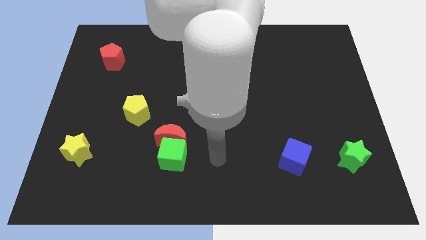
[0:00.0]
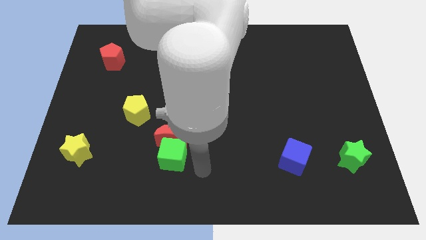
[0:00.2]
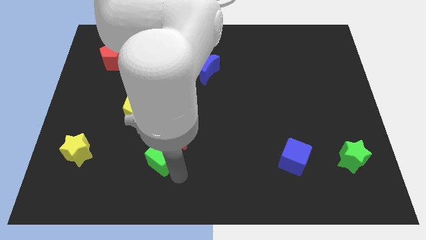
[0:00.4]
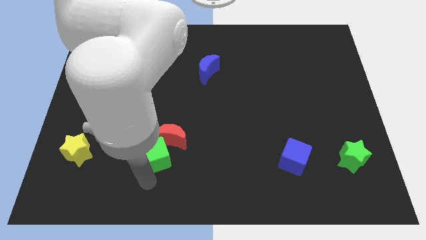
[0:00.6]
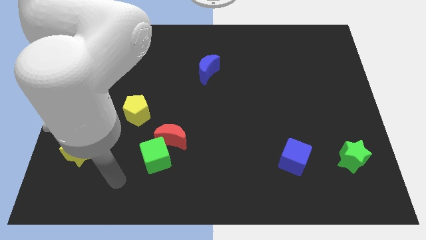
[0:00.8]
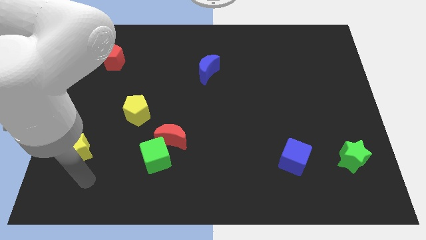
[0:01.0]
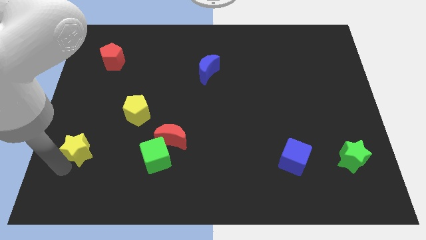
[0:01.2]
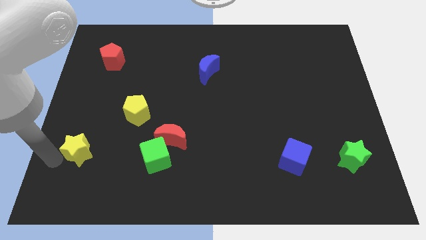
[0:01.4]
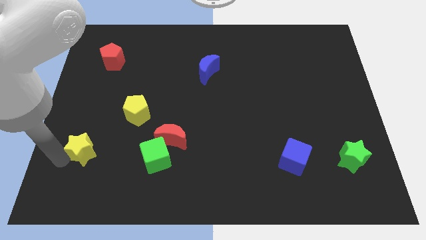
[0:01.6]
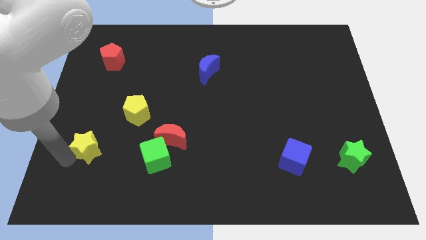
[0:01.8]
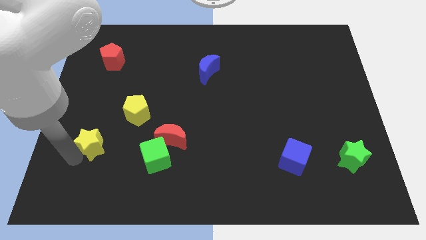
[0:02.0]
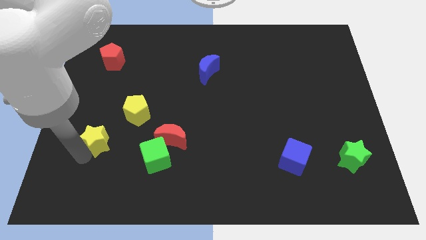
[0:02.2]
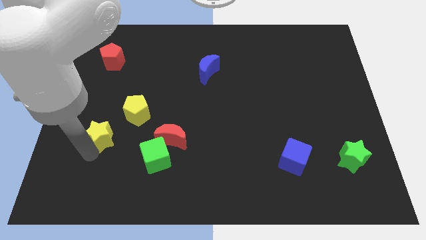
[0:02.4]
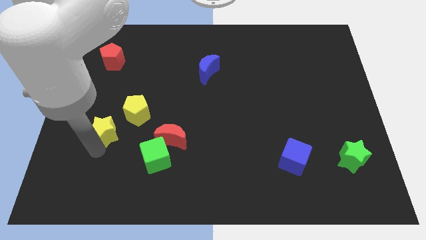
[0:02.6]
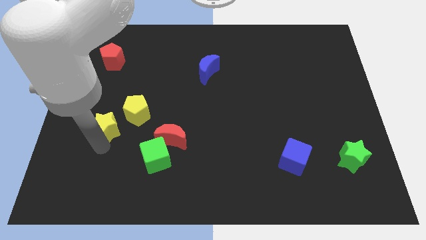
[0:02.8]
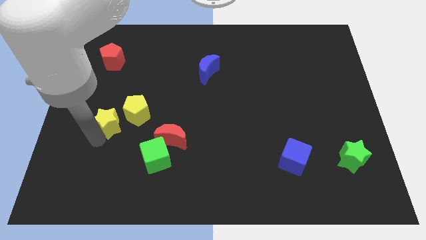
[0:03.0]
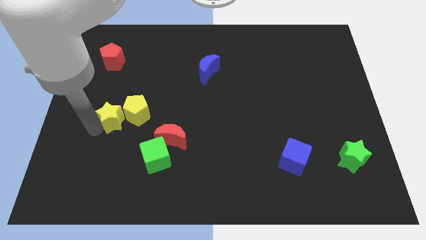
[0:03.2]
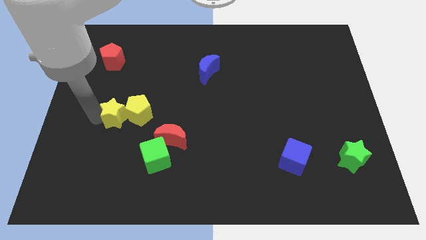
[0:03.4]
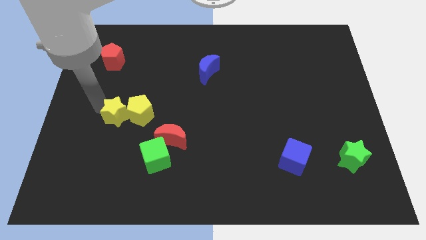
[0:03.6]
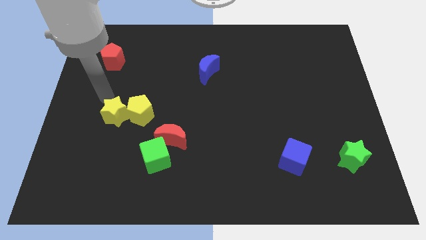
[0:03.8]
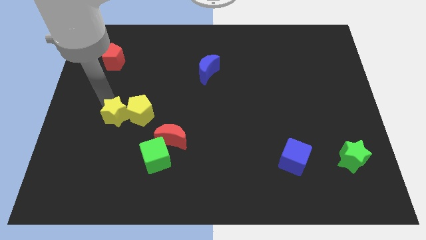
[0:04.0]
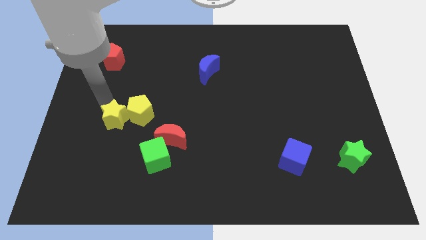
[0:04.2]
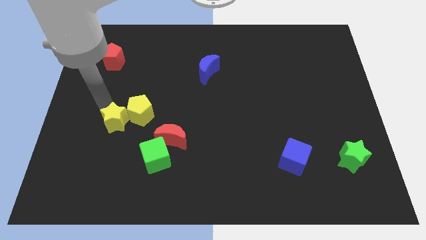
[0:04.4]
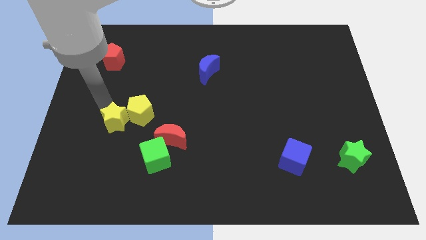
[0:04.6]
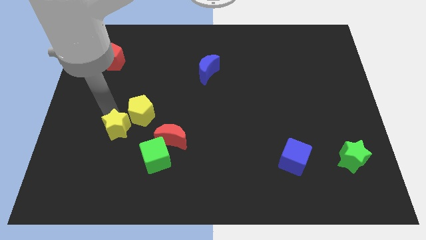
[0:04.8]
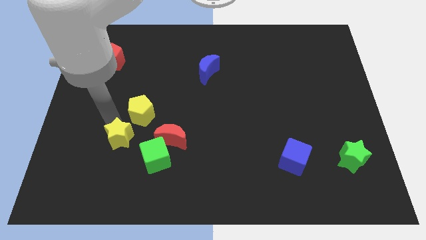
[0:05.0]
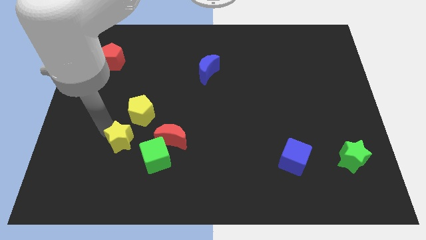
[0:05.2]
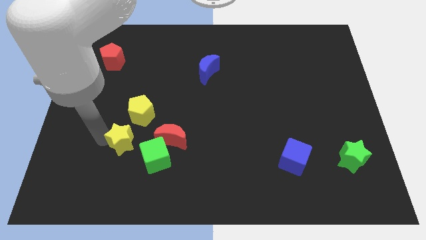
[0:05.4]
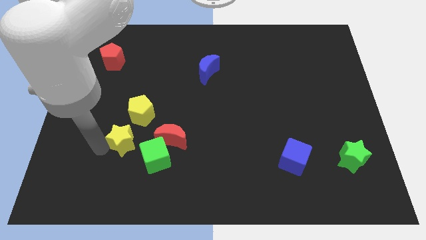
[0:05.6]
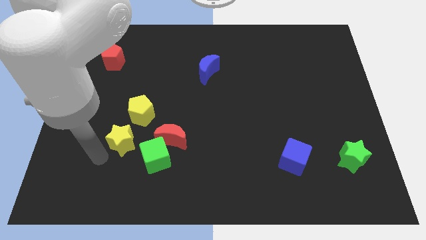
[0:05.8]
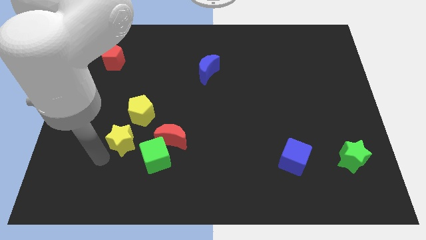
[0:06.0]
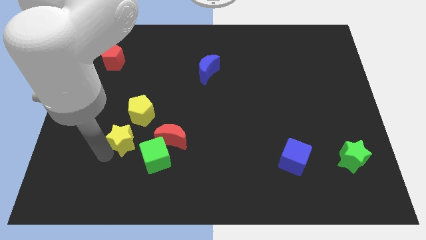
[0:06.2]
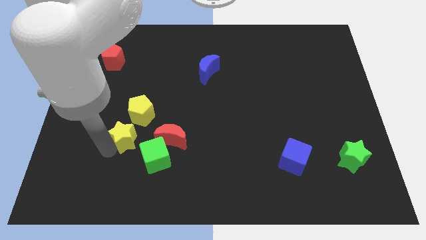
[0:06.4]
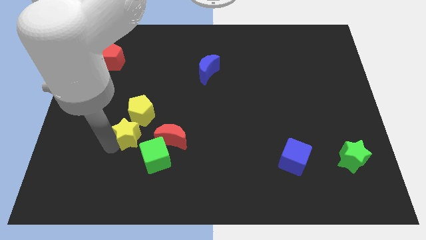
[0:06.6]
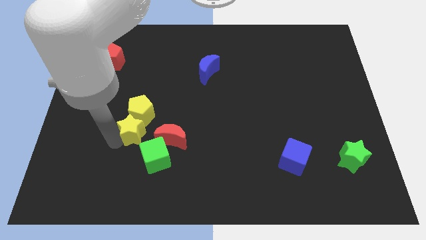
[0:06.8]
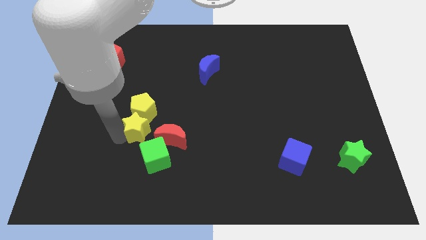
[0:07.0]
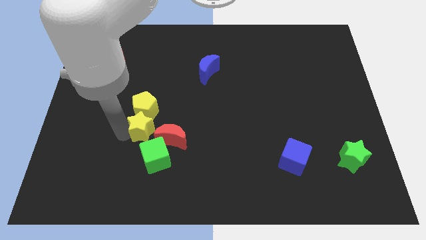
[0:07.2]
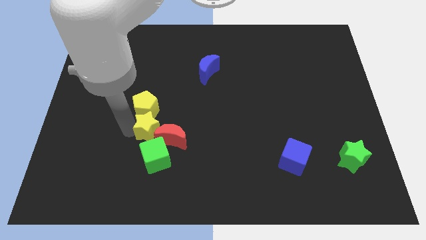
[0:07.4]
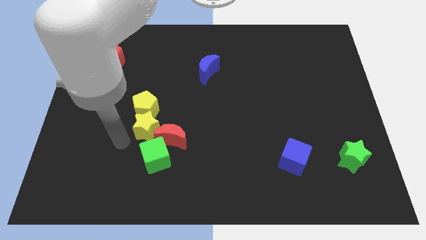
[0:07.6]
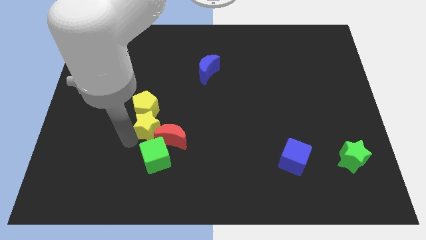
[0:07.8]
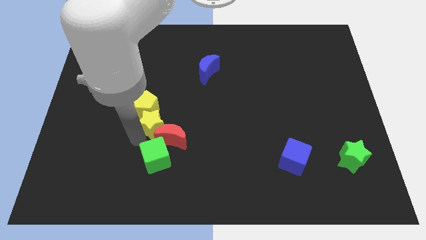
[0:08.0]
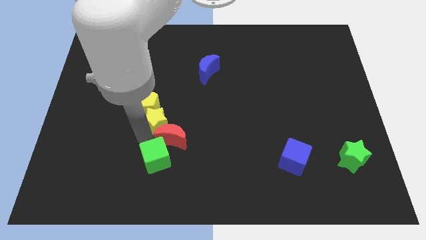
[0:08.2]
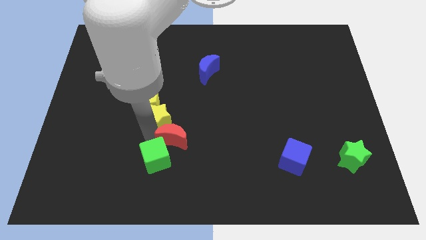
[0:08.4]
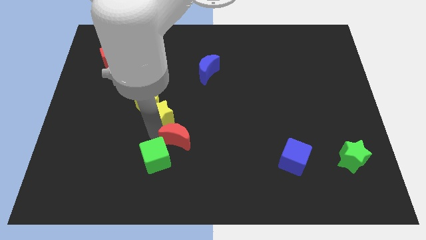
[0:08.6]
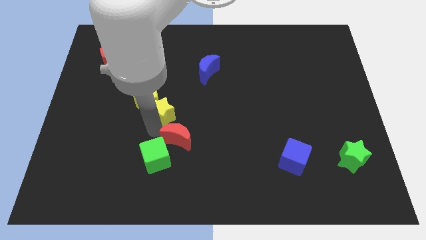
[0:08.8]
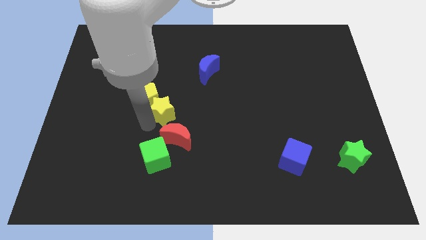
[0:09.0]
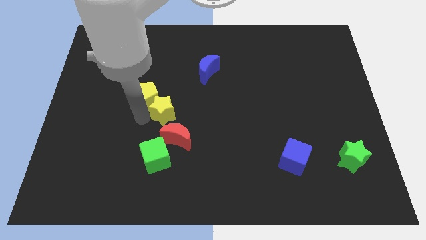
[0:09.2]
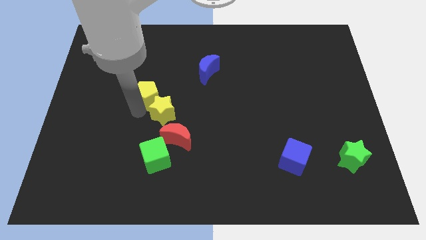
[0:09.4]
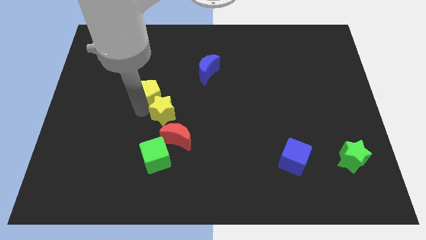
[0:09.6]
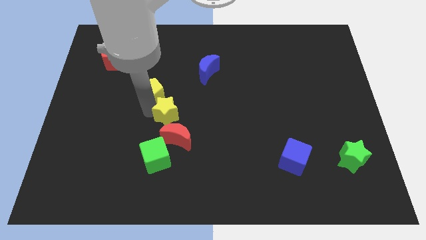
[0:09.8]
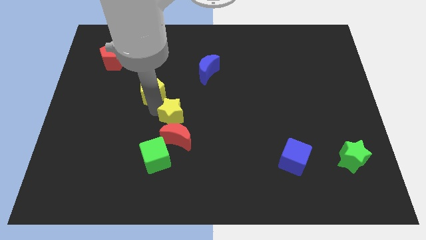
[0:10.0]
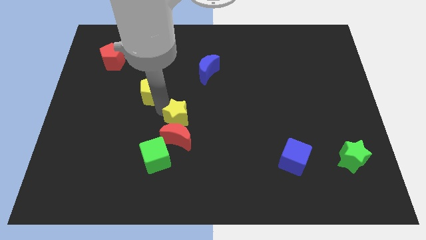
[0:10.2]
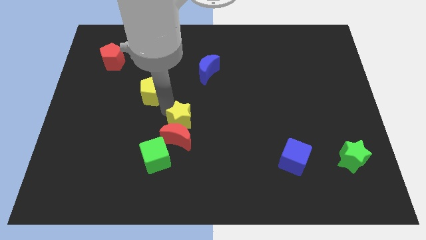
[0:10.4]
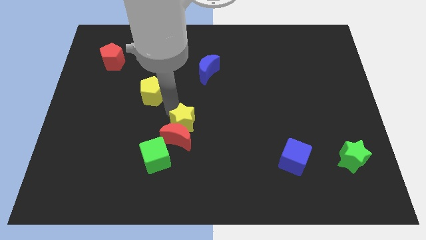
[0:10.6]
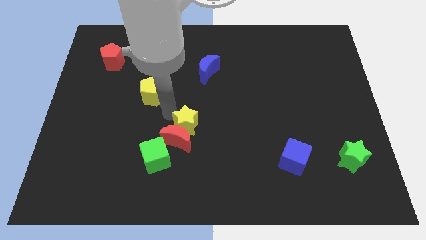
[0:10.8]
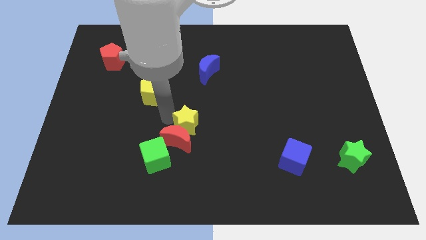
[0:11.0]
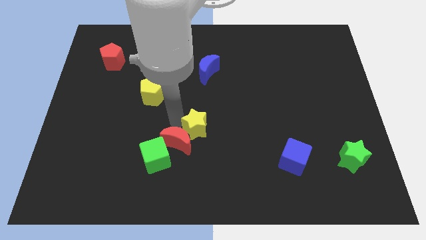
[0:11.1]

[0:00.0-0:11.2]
push the yellow star right of the red moon
